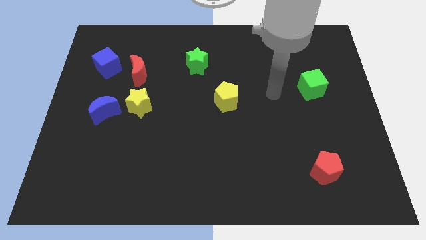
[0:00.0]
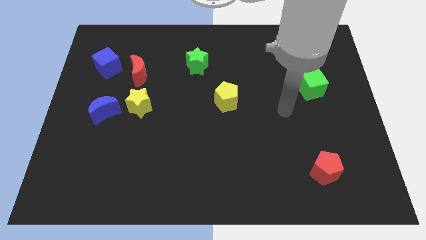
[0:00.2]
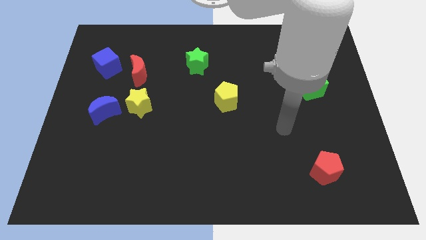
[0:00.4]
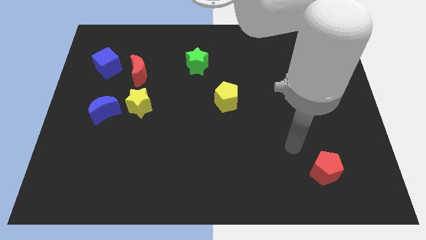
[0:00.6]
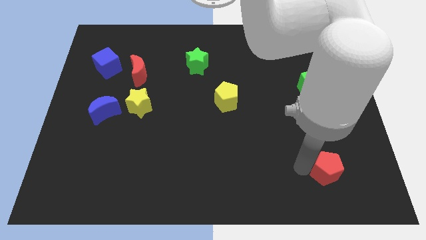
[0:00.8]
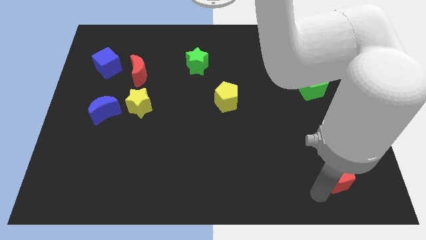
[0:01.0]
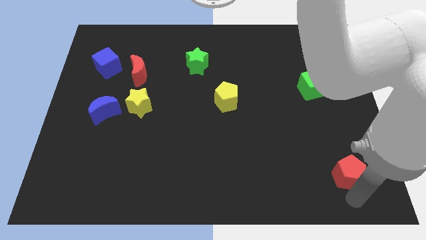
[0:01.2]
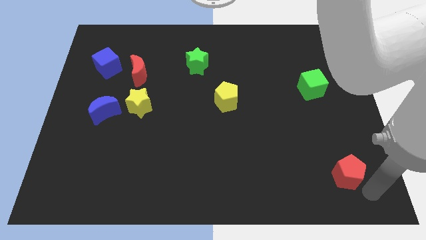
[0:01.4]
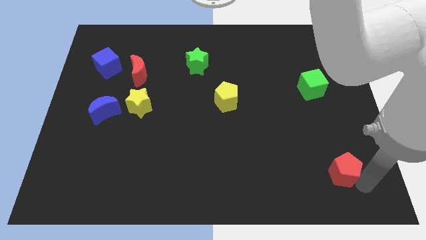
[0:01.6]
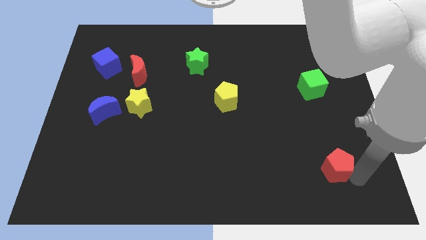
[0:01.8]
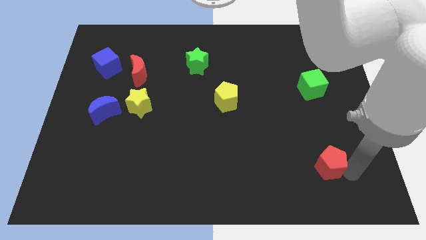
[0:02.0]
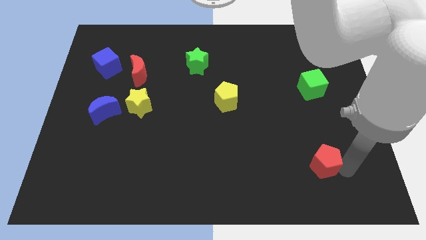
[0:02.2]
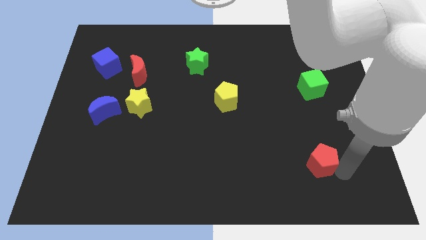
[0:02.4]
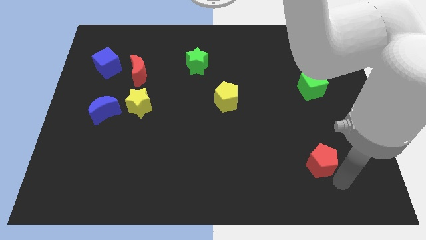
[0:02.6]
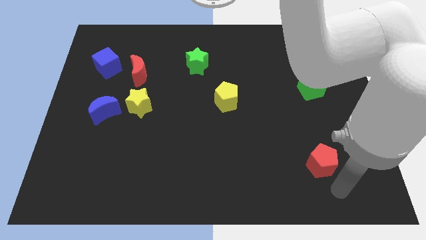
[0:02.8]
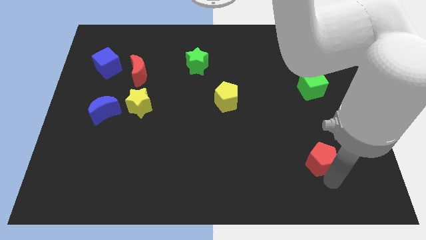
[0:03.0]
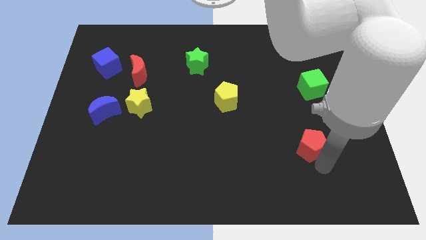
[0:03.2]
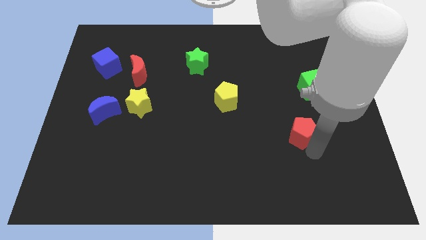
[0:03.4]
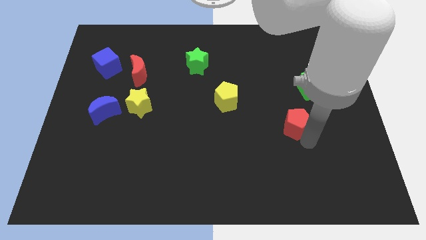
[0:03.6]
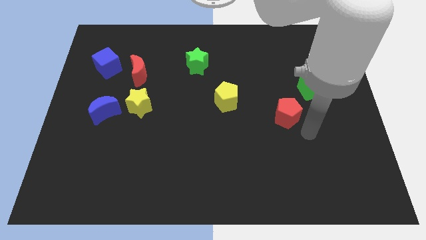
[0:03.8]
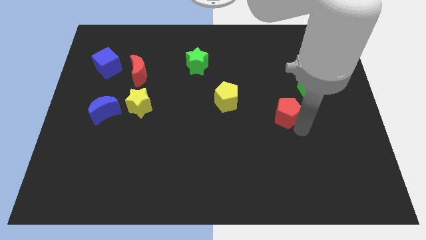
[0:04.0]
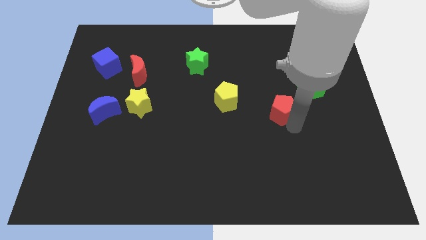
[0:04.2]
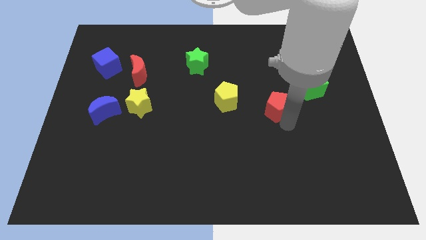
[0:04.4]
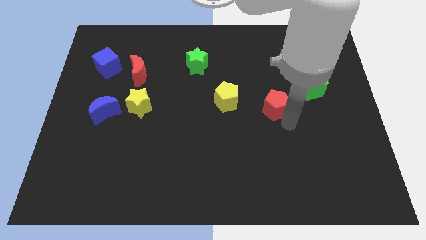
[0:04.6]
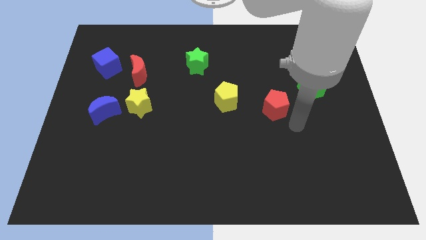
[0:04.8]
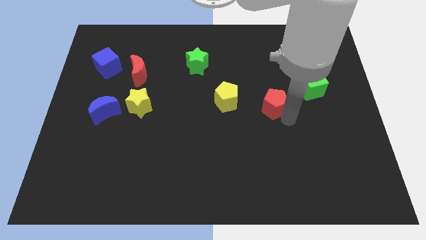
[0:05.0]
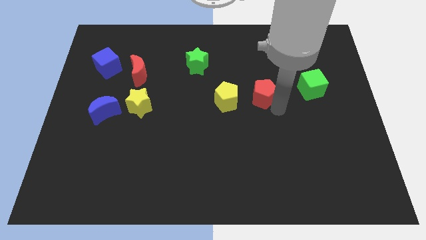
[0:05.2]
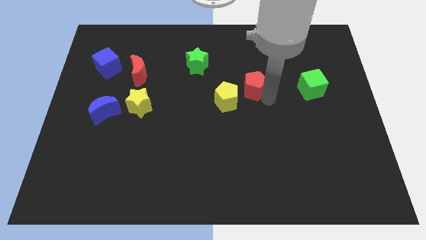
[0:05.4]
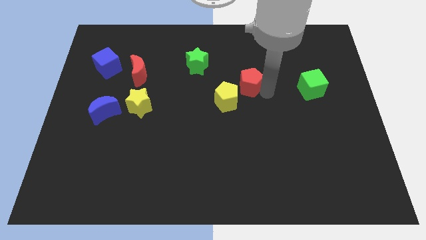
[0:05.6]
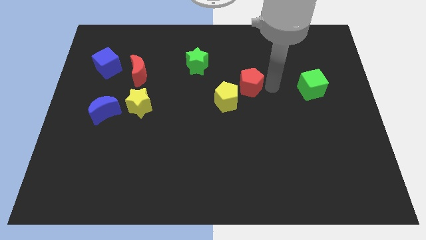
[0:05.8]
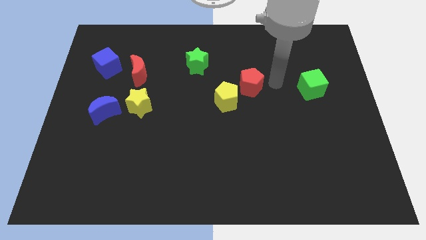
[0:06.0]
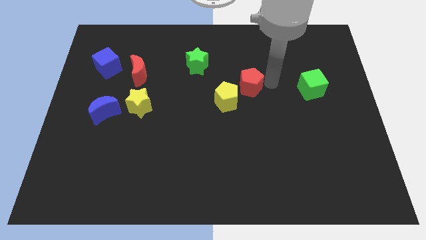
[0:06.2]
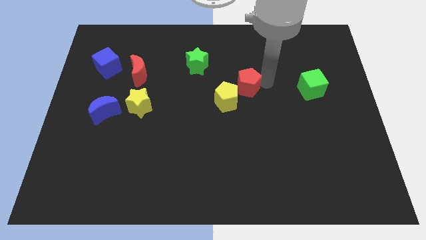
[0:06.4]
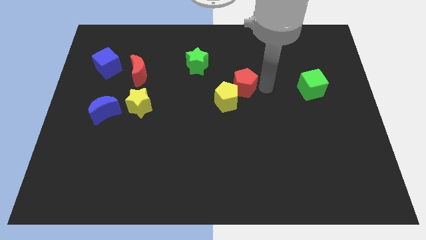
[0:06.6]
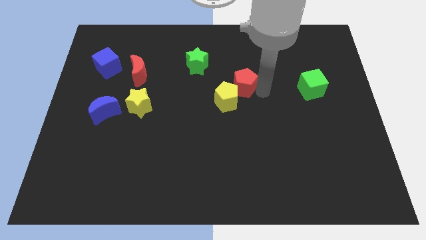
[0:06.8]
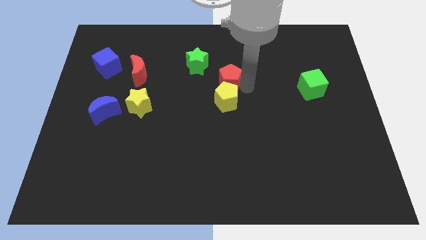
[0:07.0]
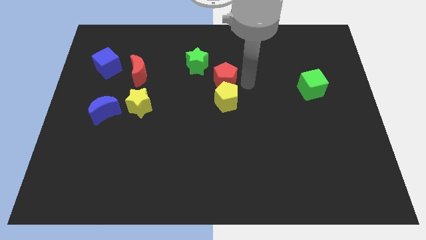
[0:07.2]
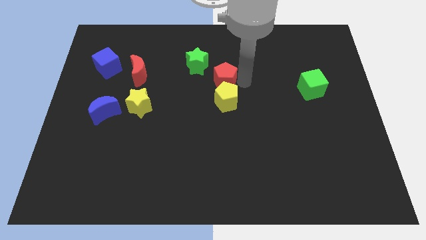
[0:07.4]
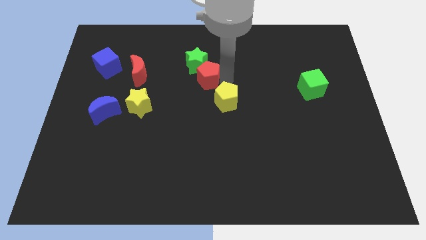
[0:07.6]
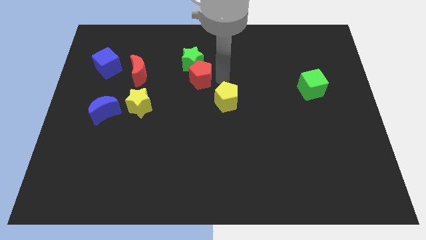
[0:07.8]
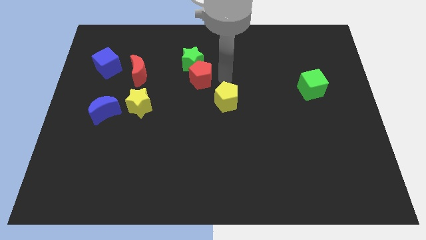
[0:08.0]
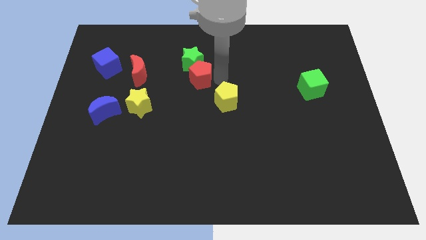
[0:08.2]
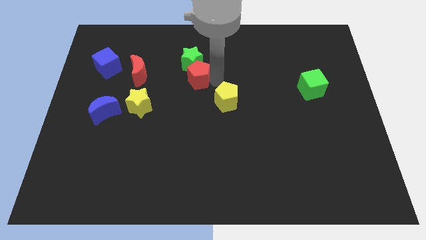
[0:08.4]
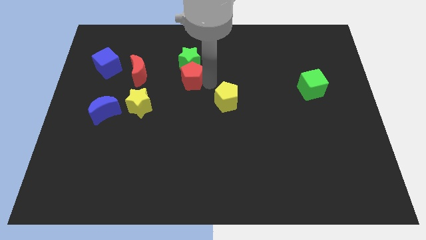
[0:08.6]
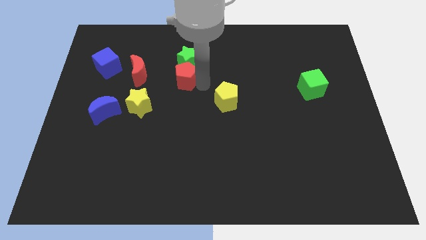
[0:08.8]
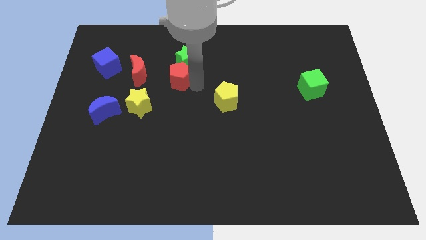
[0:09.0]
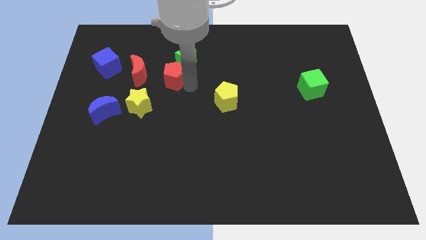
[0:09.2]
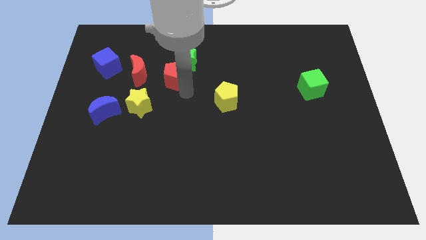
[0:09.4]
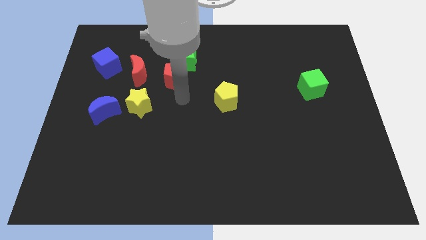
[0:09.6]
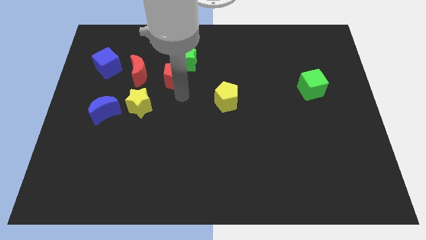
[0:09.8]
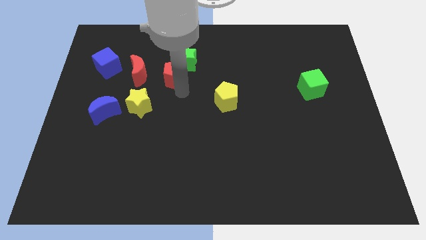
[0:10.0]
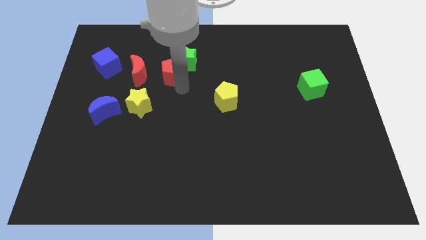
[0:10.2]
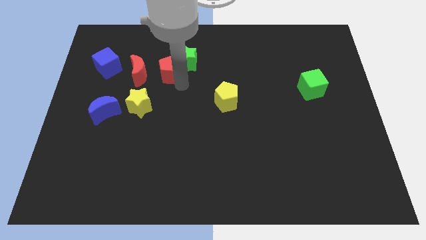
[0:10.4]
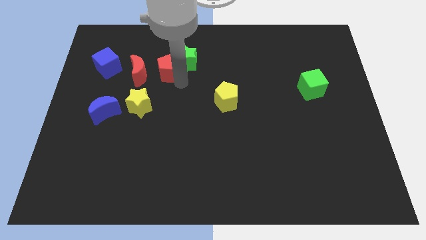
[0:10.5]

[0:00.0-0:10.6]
move the red pentagon to the top right of the red moon

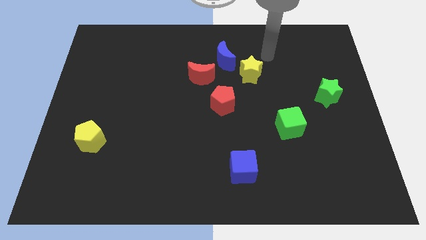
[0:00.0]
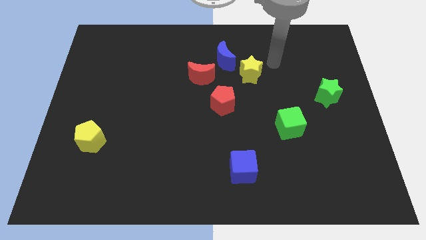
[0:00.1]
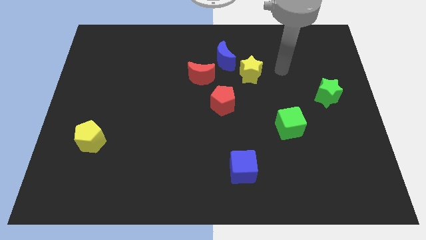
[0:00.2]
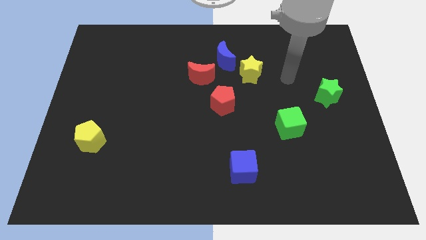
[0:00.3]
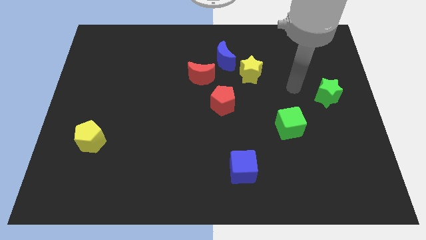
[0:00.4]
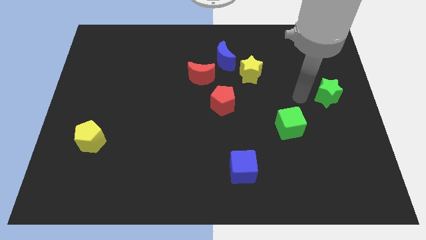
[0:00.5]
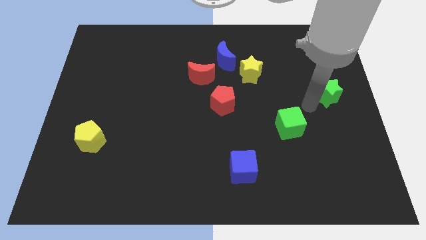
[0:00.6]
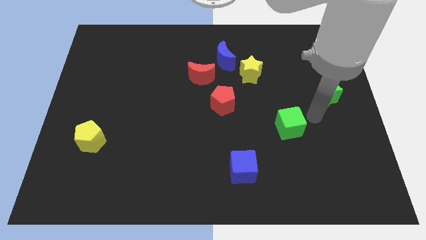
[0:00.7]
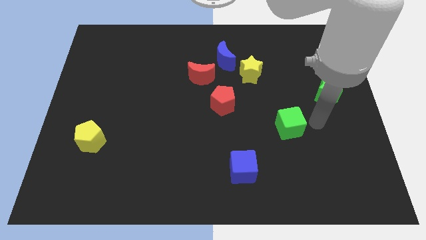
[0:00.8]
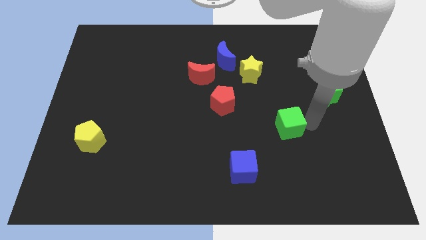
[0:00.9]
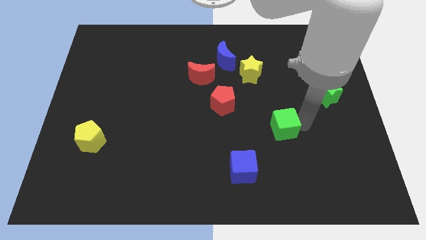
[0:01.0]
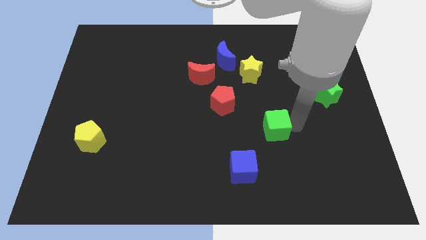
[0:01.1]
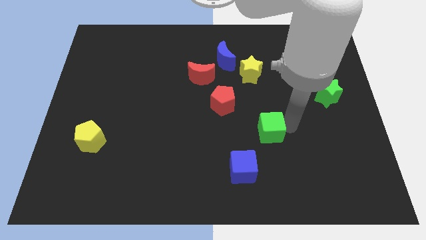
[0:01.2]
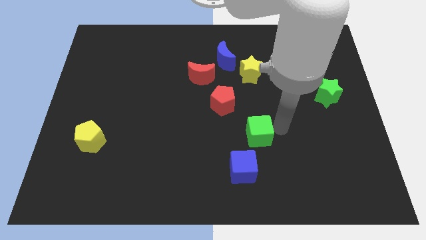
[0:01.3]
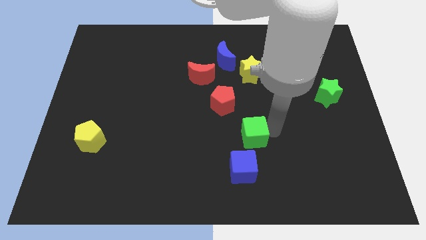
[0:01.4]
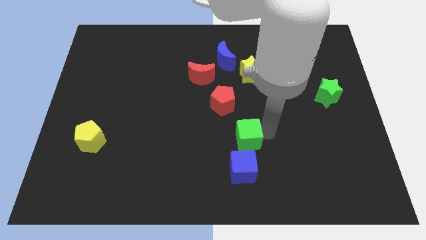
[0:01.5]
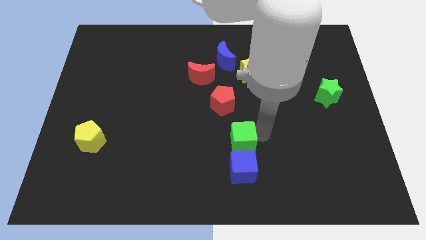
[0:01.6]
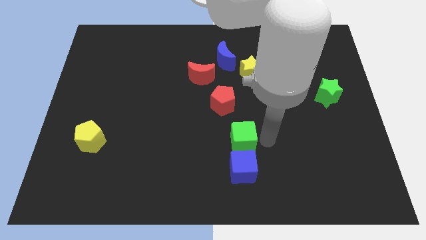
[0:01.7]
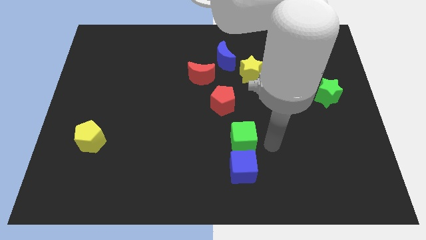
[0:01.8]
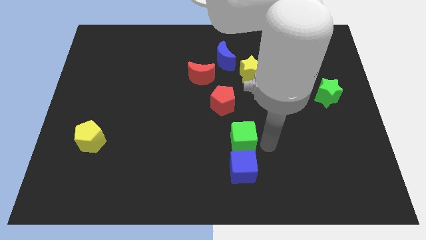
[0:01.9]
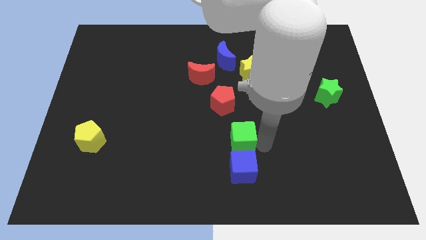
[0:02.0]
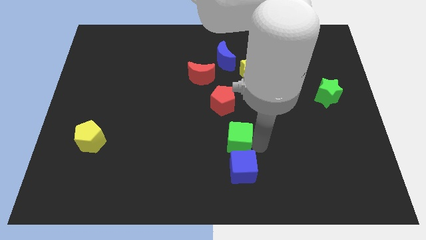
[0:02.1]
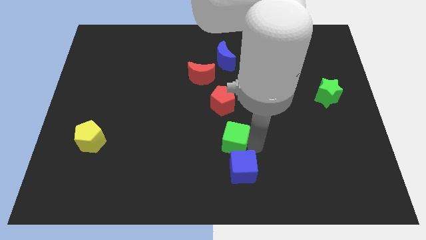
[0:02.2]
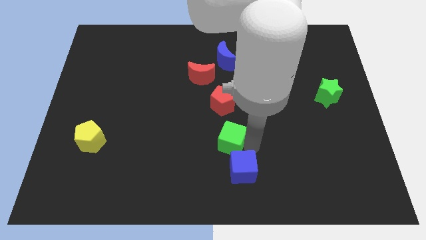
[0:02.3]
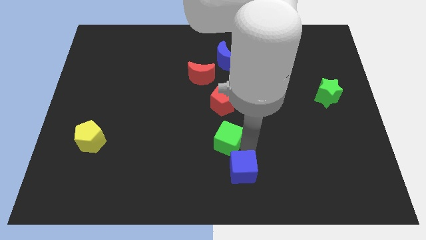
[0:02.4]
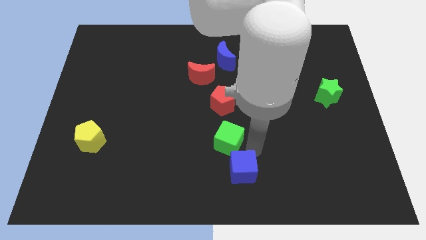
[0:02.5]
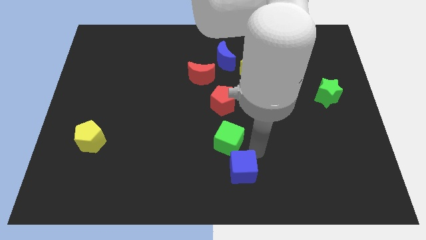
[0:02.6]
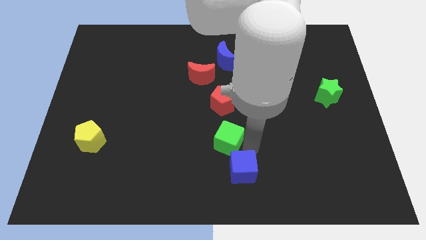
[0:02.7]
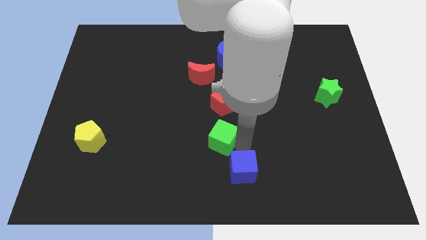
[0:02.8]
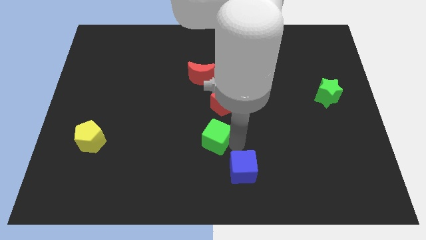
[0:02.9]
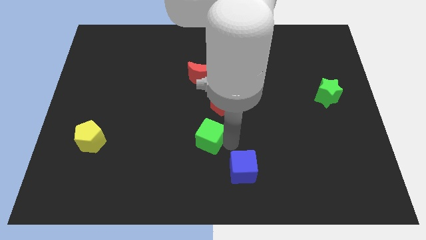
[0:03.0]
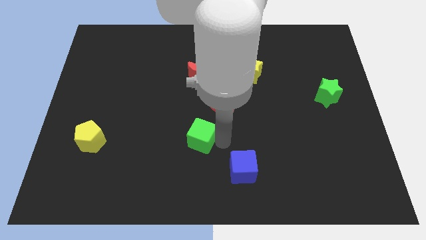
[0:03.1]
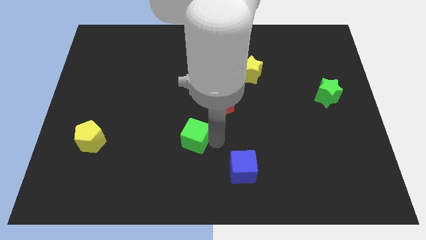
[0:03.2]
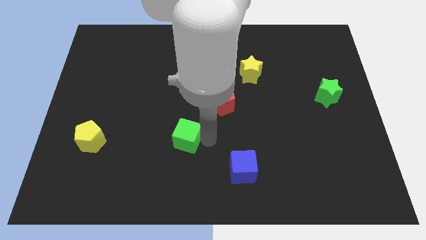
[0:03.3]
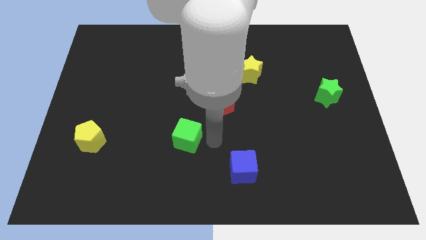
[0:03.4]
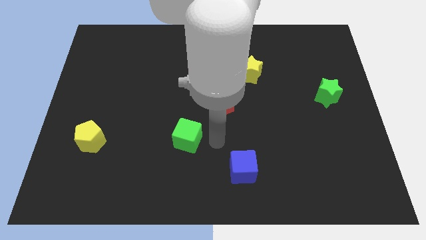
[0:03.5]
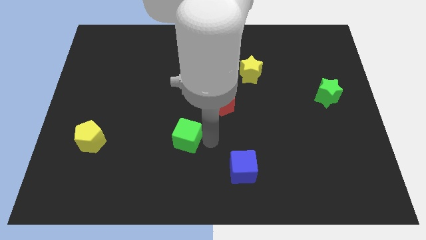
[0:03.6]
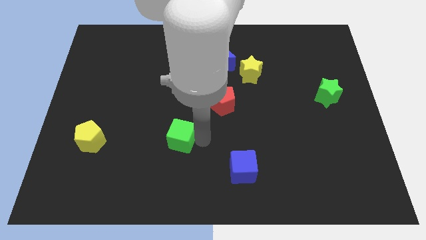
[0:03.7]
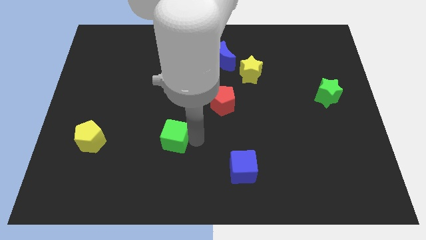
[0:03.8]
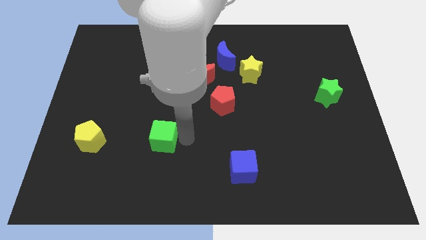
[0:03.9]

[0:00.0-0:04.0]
put the green cube to the right of the yellow pentagon
